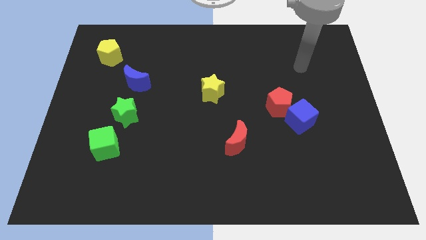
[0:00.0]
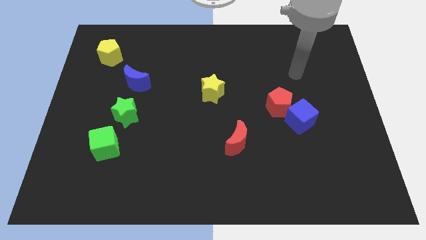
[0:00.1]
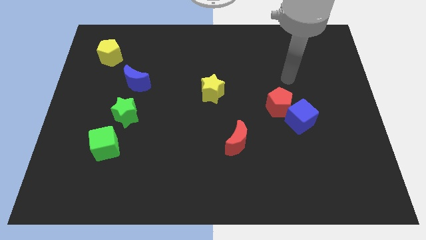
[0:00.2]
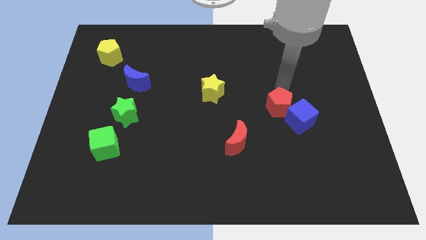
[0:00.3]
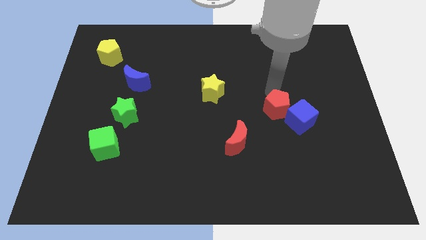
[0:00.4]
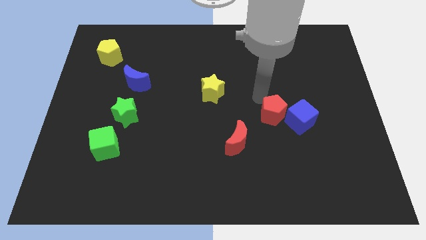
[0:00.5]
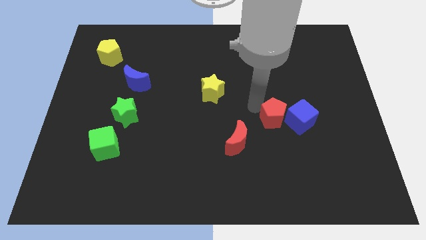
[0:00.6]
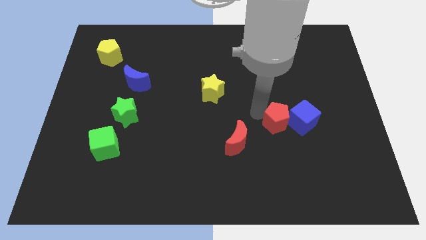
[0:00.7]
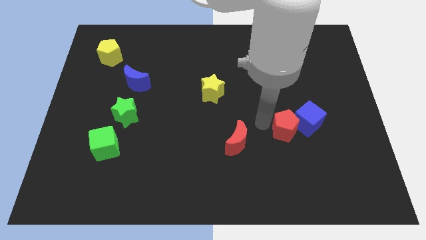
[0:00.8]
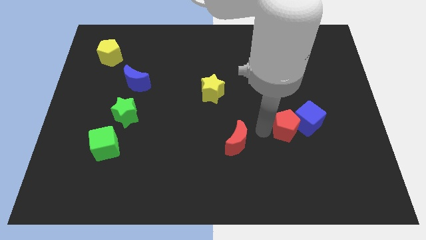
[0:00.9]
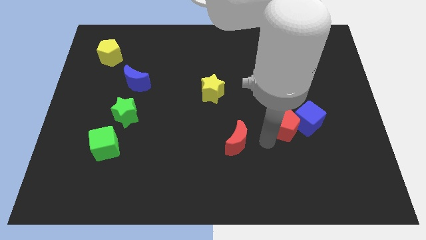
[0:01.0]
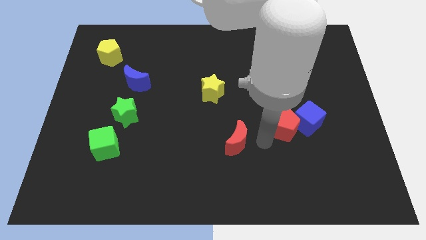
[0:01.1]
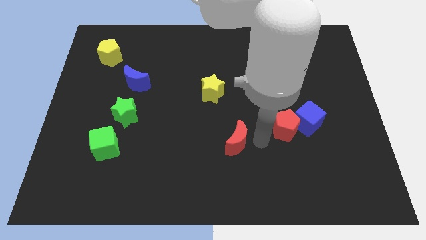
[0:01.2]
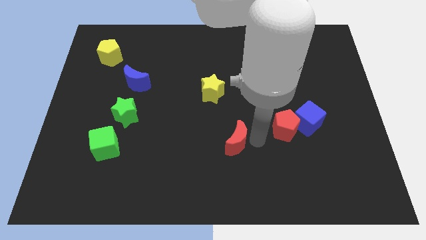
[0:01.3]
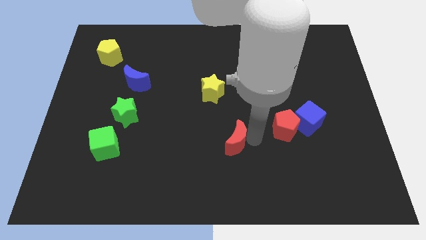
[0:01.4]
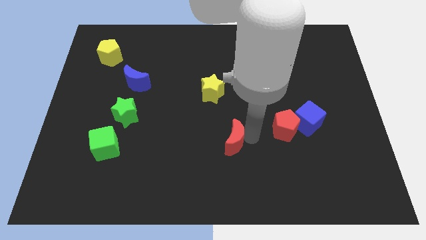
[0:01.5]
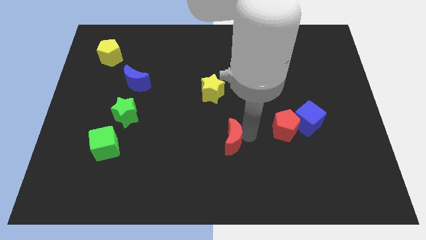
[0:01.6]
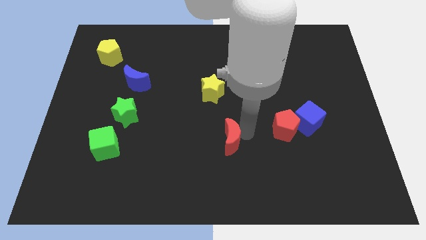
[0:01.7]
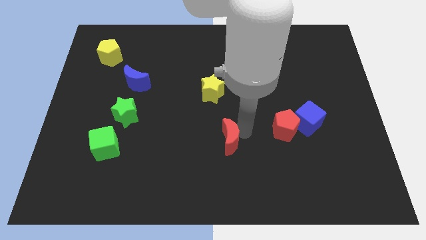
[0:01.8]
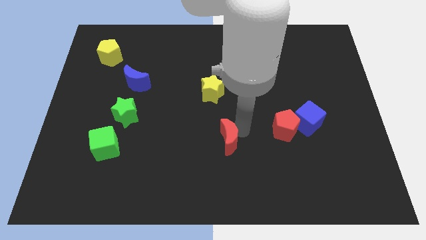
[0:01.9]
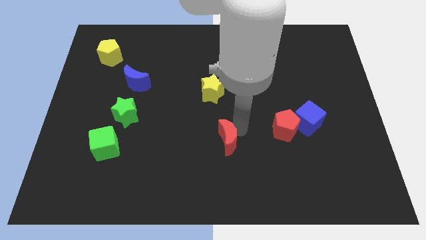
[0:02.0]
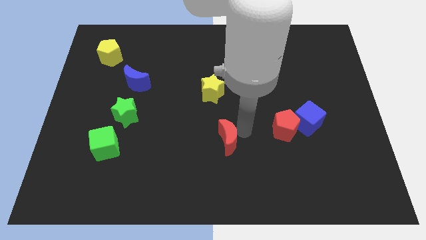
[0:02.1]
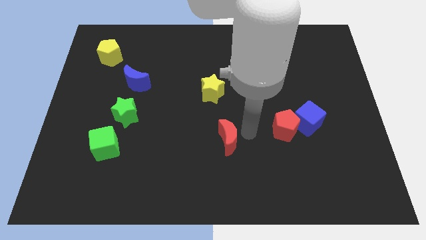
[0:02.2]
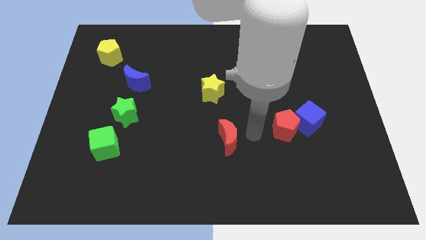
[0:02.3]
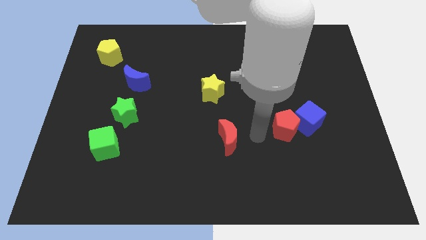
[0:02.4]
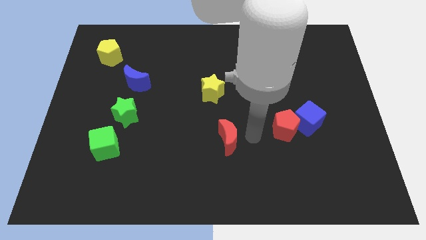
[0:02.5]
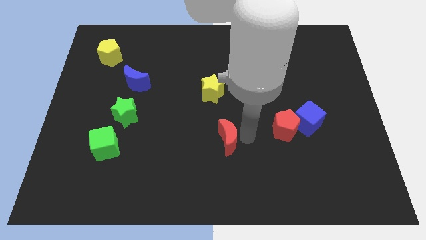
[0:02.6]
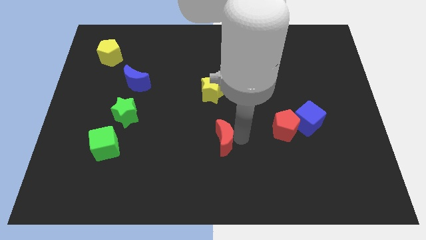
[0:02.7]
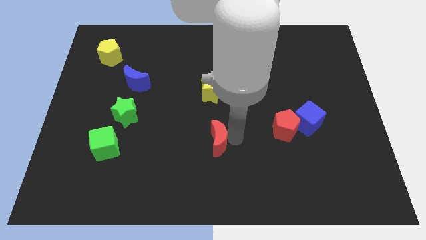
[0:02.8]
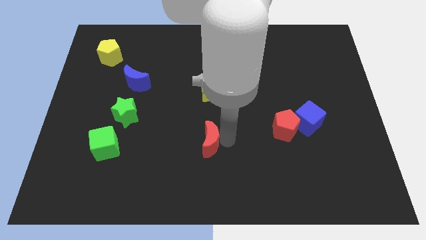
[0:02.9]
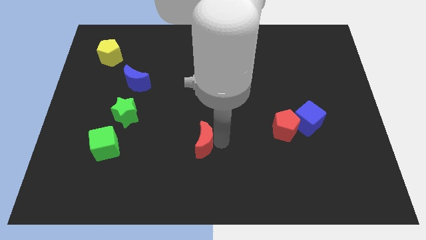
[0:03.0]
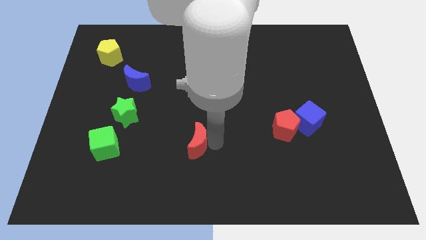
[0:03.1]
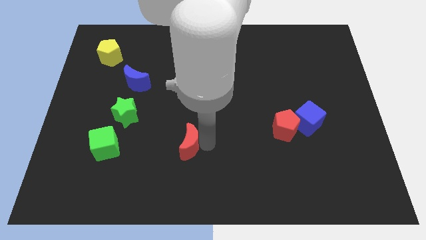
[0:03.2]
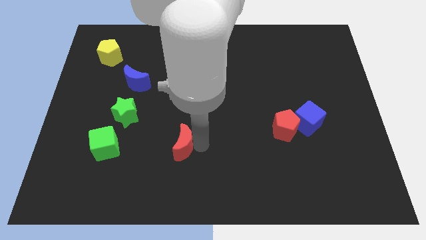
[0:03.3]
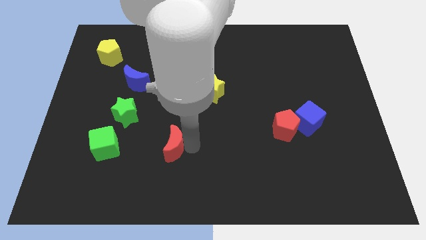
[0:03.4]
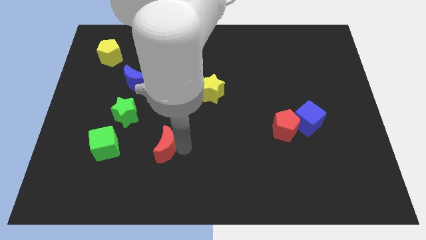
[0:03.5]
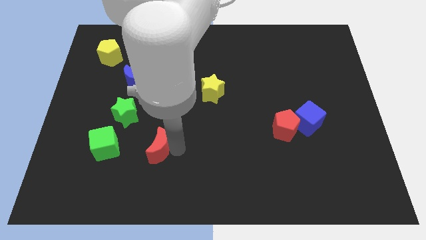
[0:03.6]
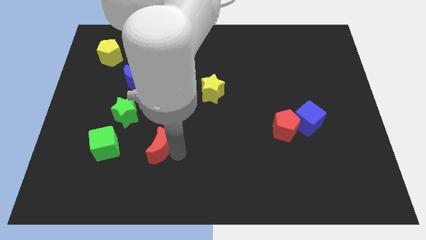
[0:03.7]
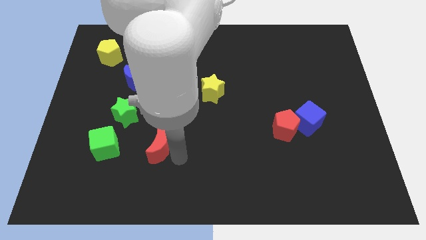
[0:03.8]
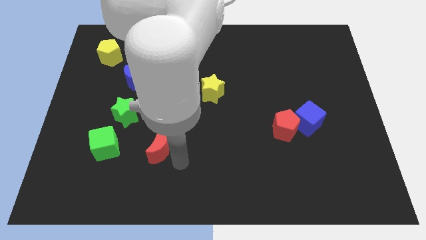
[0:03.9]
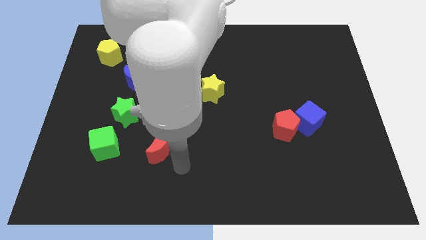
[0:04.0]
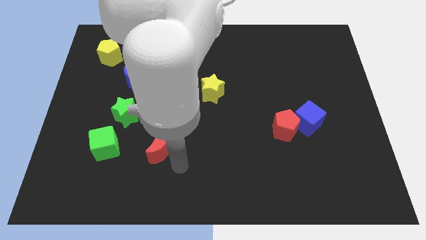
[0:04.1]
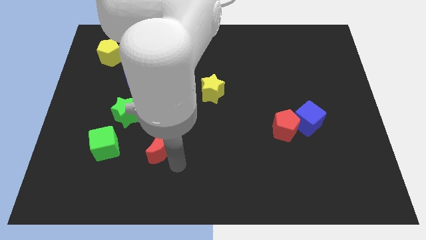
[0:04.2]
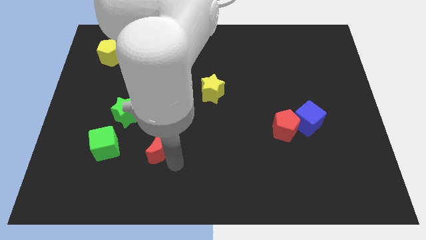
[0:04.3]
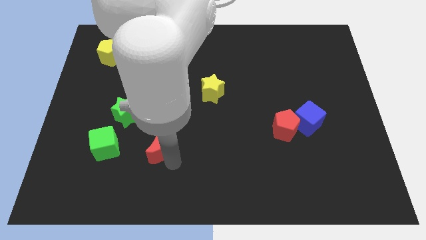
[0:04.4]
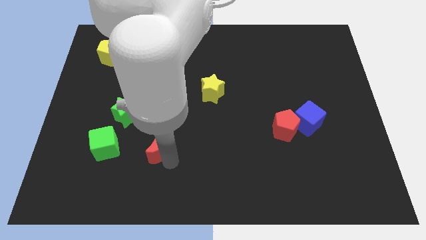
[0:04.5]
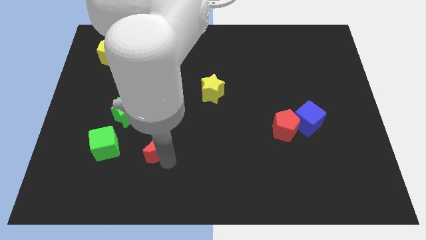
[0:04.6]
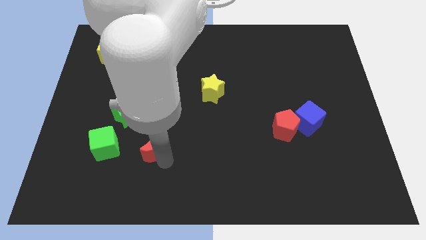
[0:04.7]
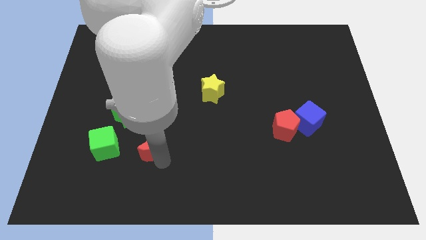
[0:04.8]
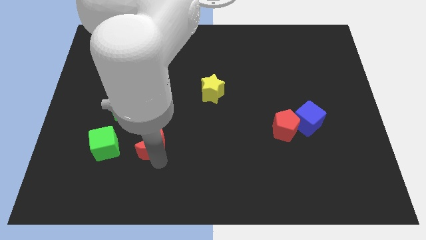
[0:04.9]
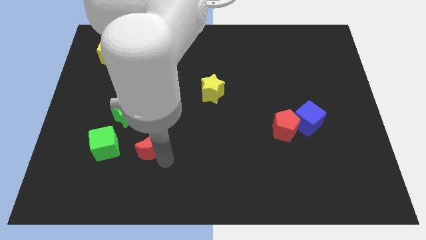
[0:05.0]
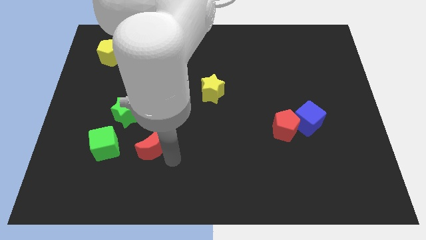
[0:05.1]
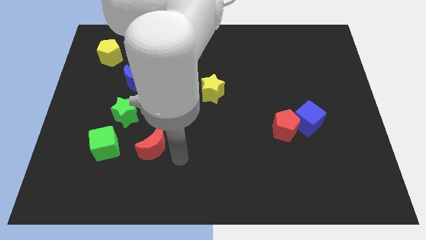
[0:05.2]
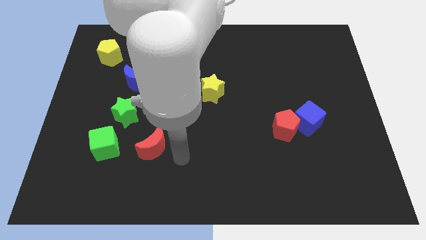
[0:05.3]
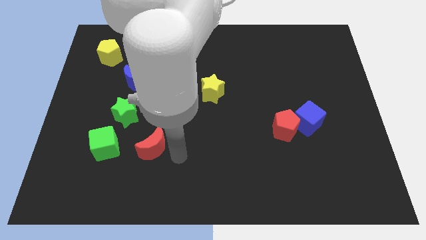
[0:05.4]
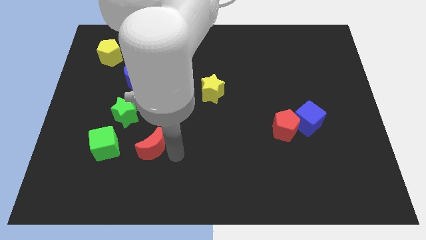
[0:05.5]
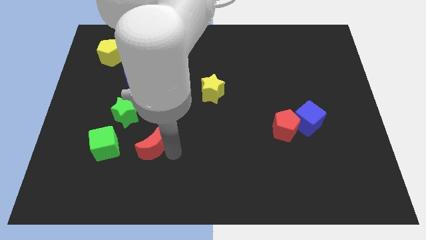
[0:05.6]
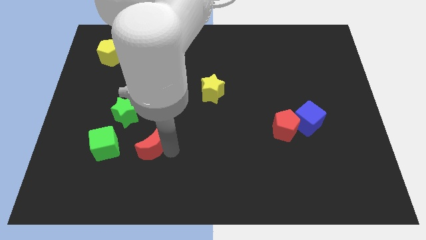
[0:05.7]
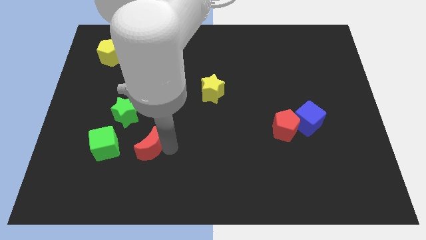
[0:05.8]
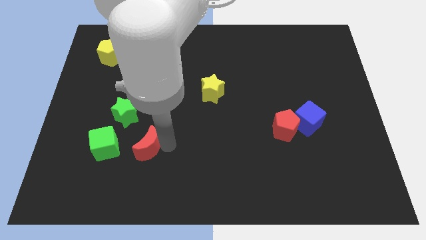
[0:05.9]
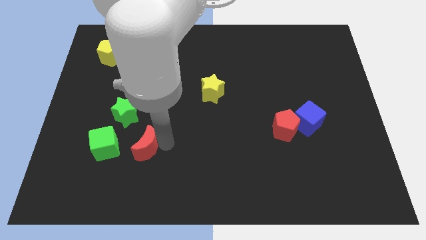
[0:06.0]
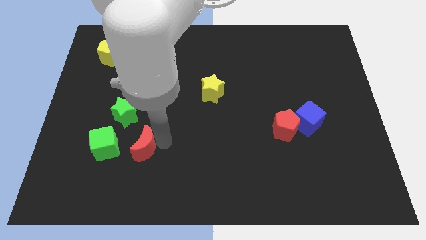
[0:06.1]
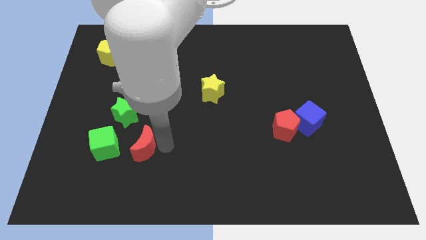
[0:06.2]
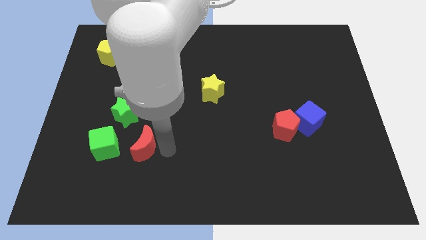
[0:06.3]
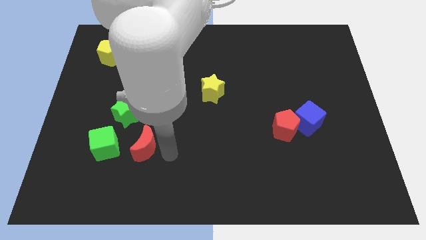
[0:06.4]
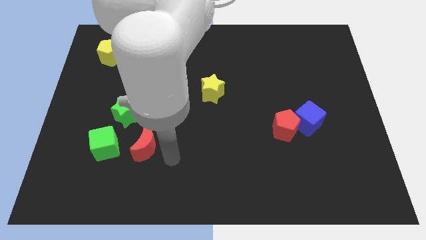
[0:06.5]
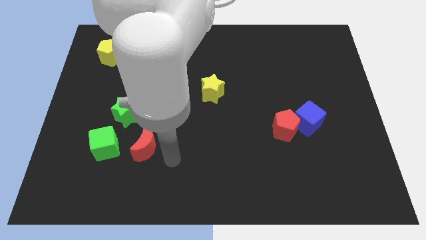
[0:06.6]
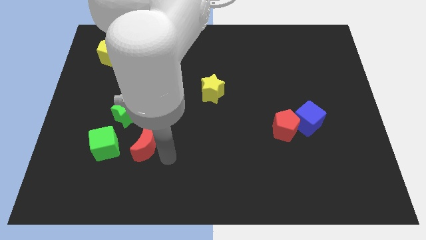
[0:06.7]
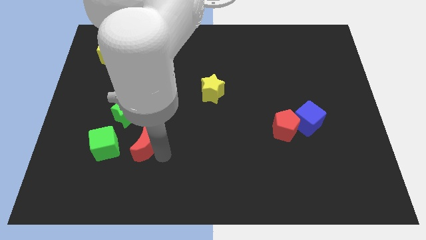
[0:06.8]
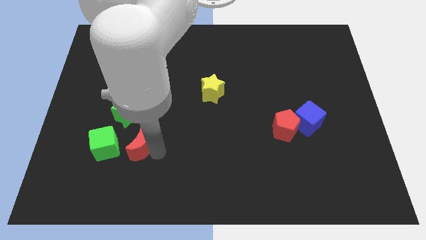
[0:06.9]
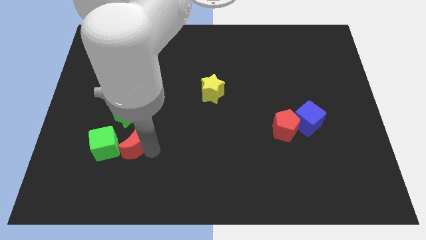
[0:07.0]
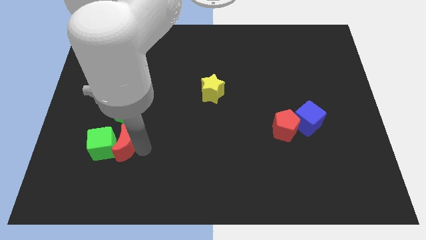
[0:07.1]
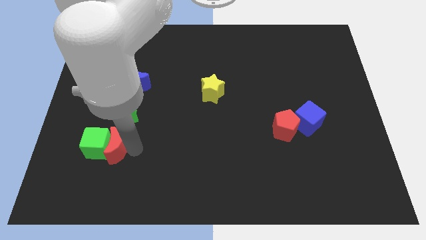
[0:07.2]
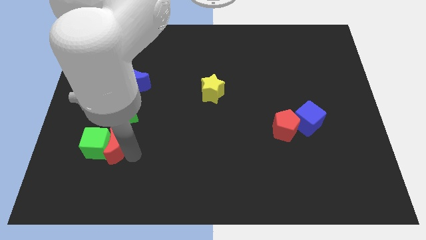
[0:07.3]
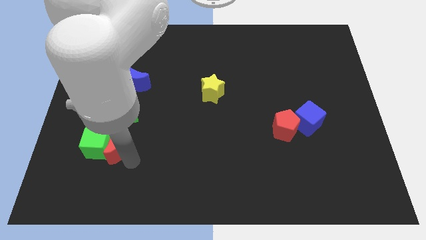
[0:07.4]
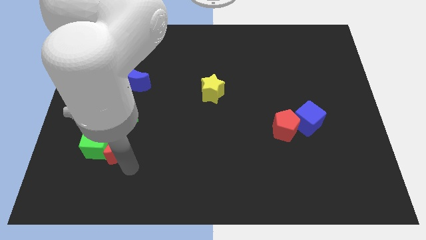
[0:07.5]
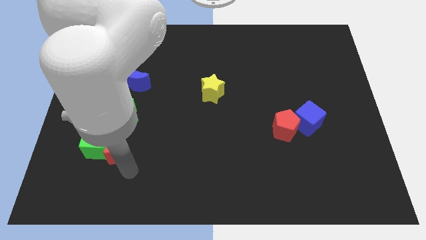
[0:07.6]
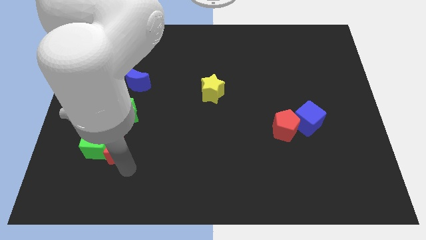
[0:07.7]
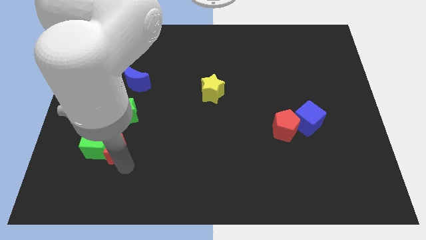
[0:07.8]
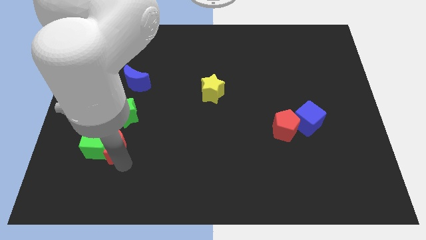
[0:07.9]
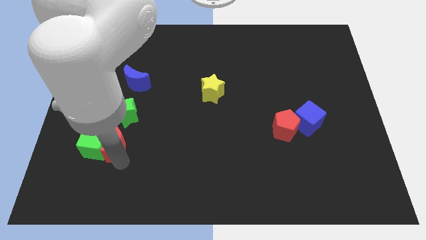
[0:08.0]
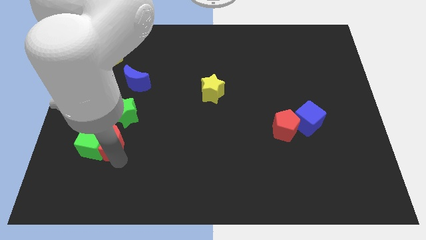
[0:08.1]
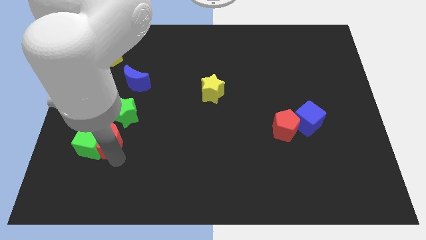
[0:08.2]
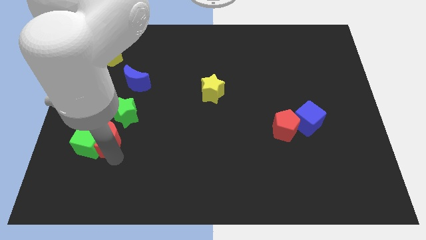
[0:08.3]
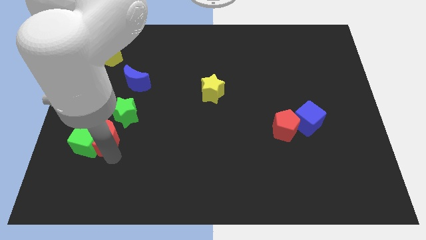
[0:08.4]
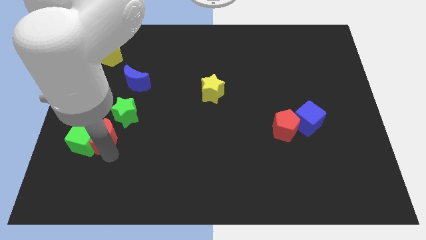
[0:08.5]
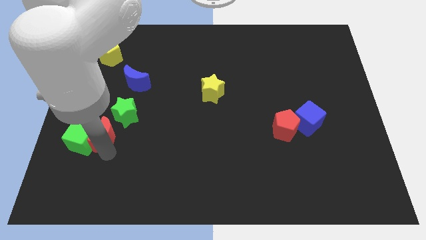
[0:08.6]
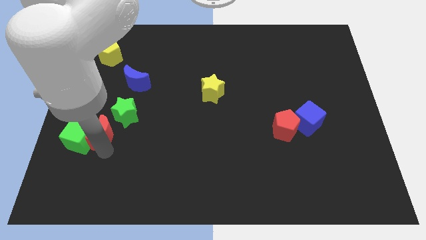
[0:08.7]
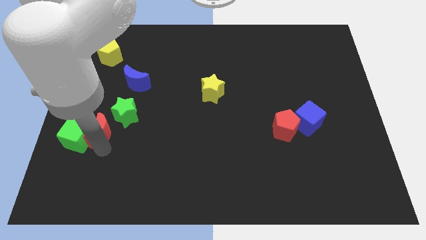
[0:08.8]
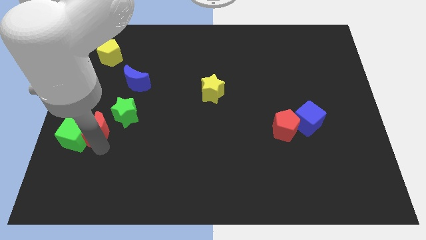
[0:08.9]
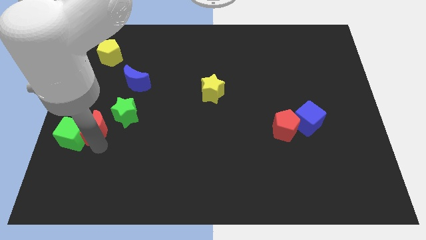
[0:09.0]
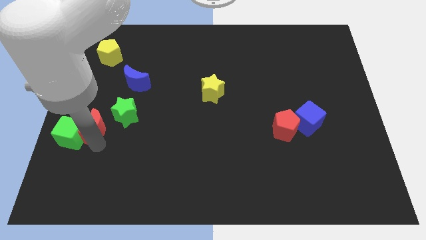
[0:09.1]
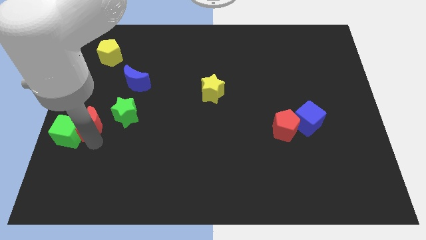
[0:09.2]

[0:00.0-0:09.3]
put the red moon to the center left
